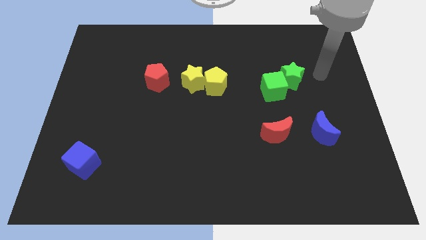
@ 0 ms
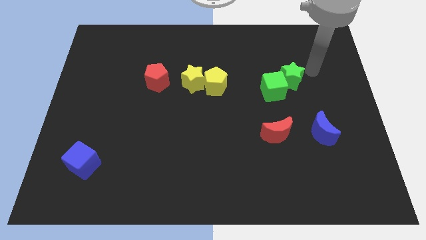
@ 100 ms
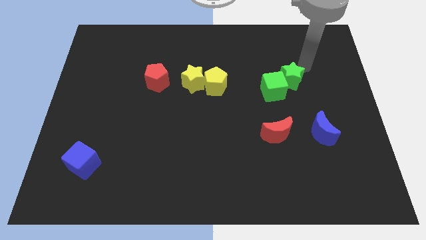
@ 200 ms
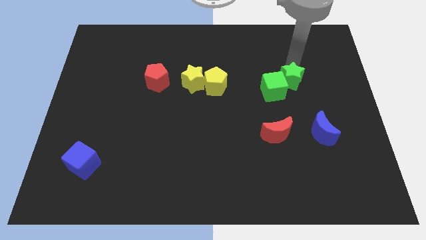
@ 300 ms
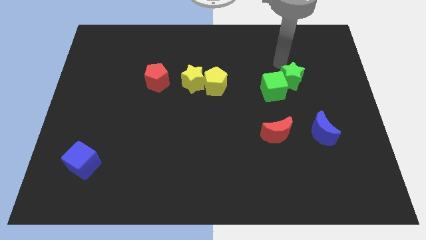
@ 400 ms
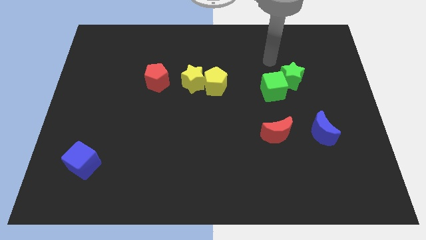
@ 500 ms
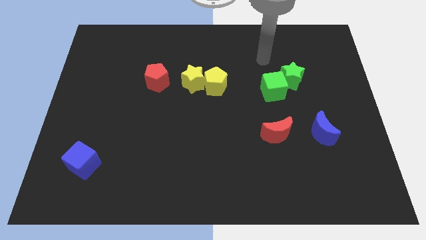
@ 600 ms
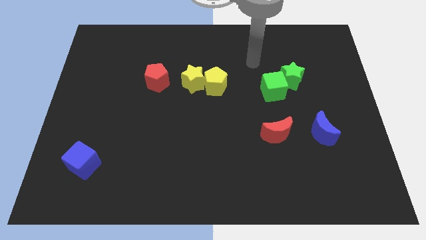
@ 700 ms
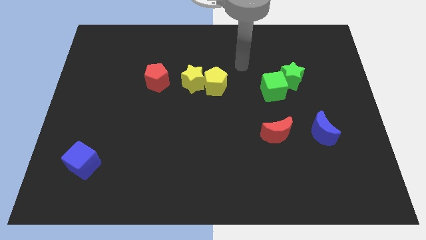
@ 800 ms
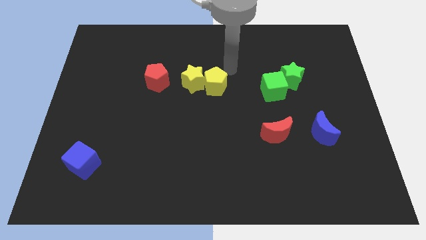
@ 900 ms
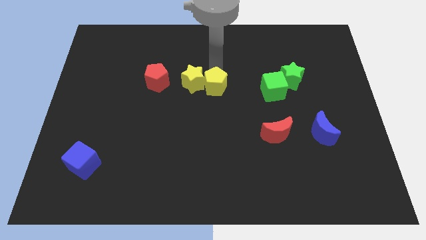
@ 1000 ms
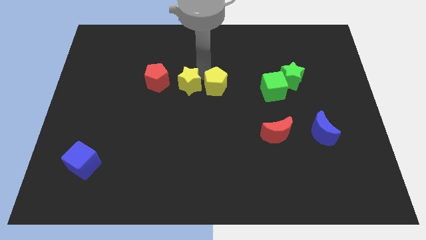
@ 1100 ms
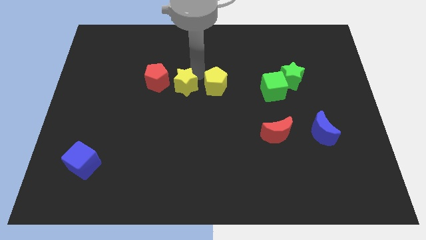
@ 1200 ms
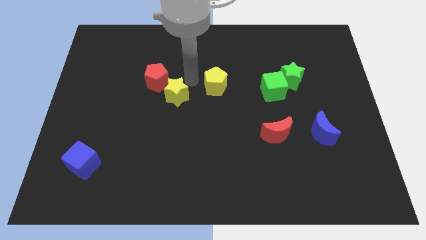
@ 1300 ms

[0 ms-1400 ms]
pull the yellow pentagon apart from the yellow star

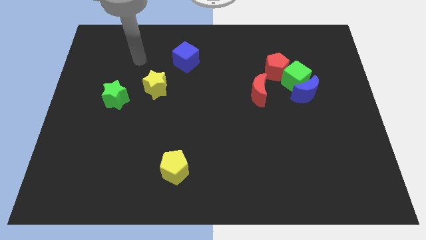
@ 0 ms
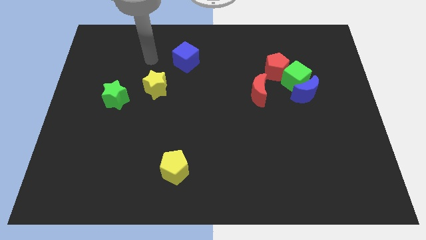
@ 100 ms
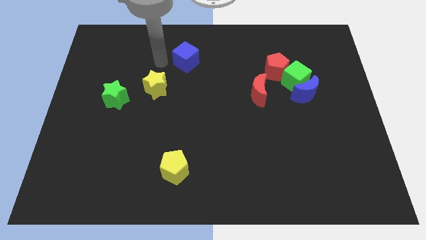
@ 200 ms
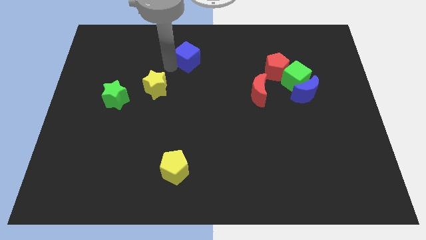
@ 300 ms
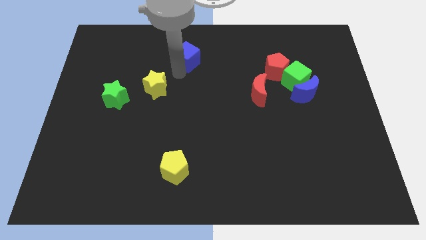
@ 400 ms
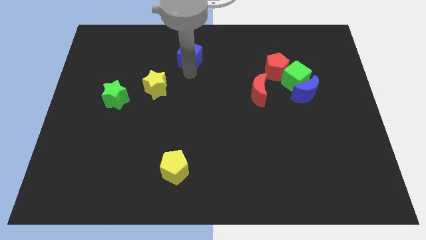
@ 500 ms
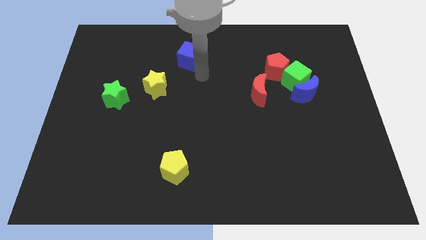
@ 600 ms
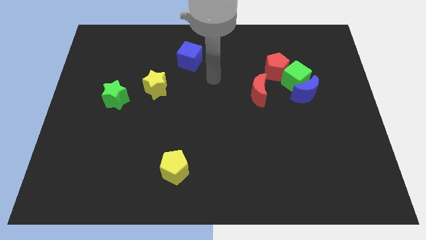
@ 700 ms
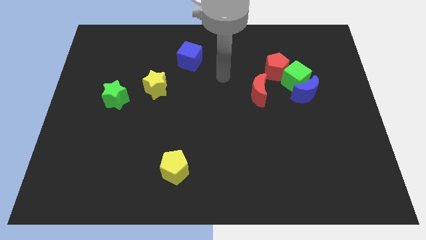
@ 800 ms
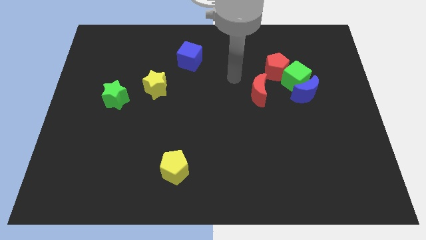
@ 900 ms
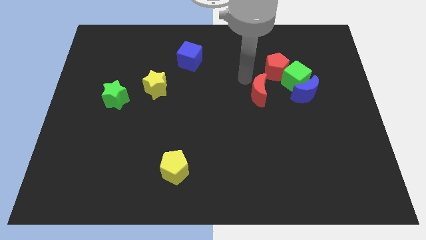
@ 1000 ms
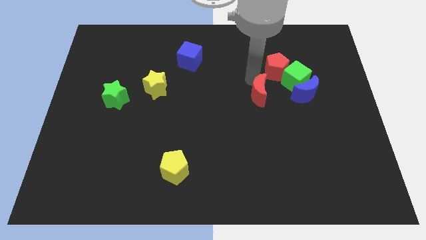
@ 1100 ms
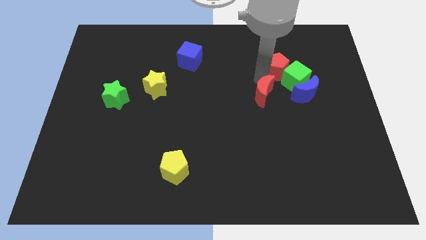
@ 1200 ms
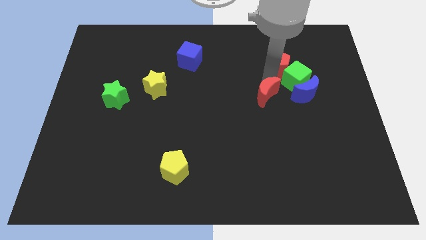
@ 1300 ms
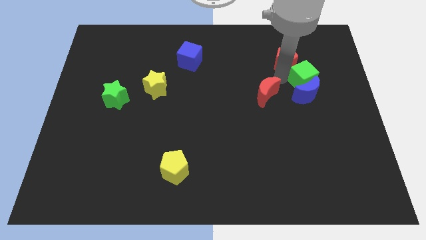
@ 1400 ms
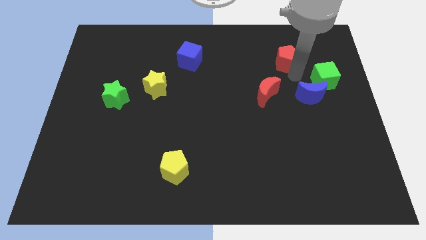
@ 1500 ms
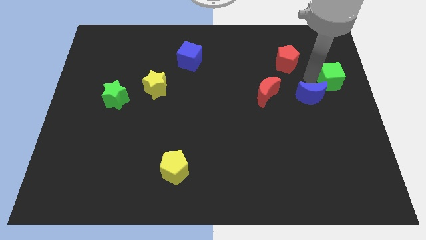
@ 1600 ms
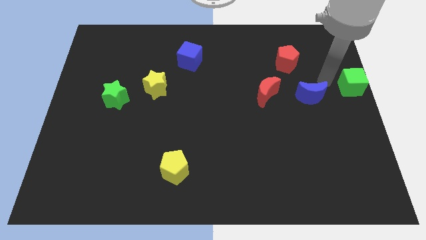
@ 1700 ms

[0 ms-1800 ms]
move the blue moon away from the green cube

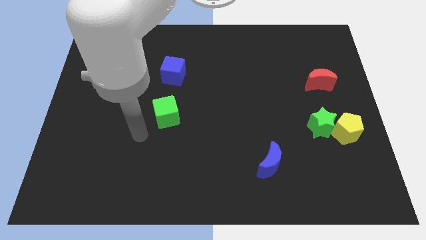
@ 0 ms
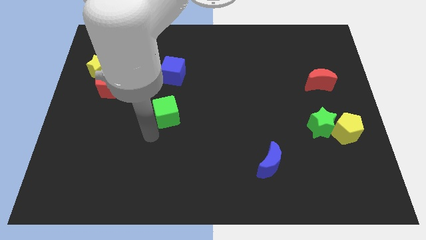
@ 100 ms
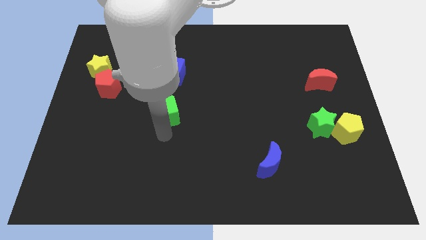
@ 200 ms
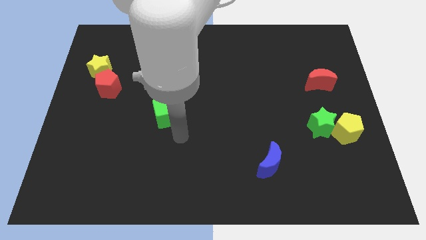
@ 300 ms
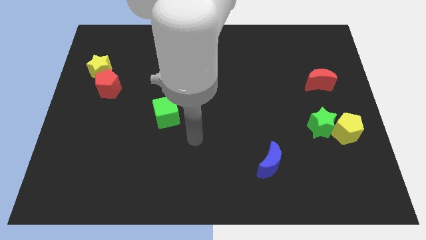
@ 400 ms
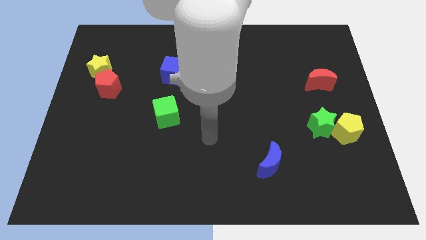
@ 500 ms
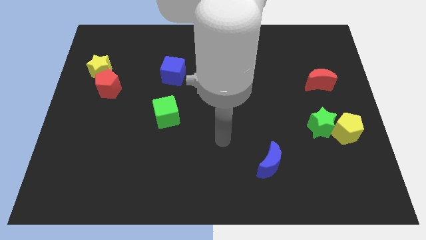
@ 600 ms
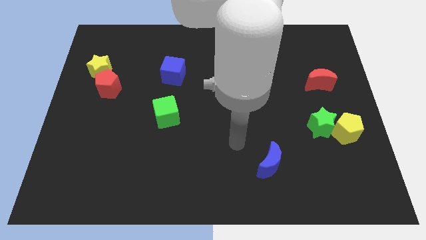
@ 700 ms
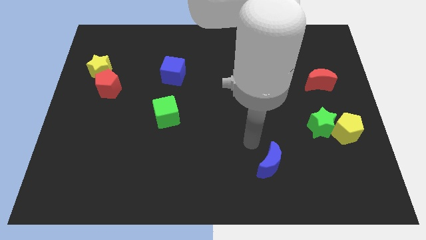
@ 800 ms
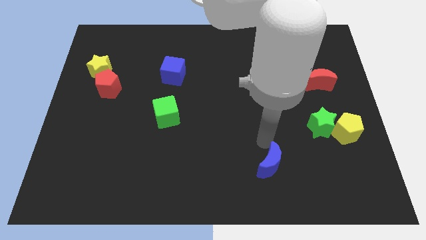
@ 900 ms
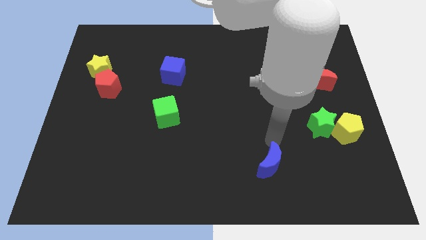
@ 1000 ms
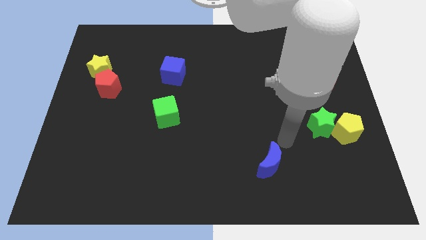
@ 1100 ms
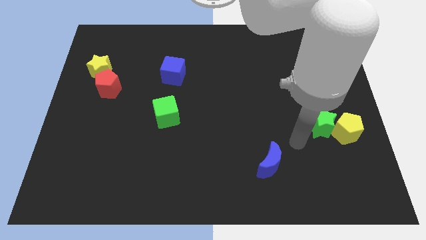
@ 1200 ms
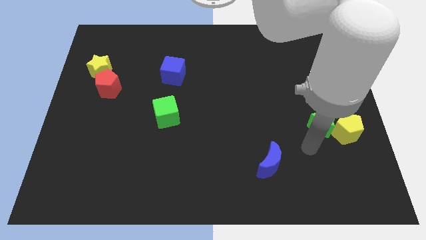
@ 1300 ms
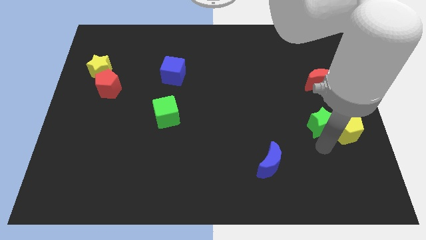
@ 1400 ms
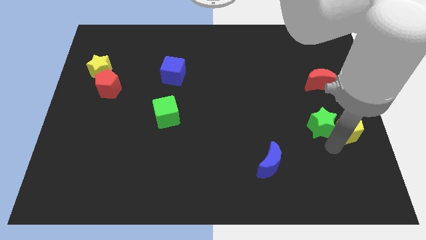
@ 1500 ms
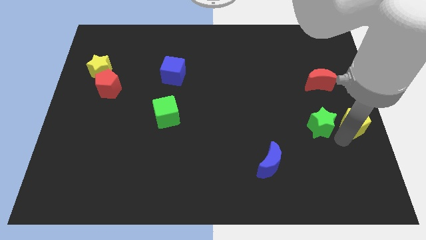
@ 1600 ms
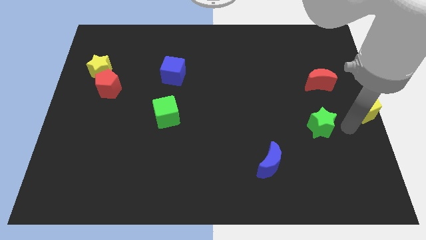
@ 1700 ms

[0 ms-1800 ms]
separate the green star from the yellow pentagon

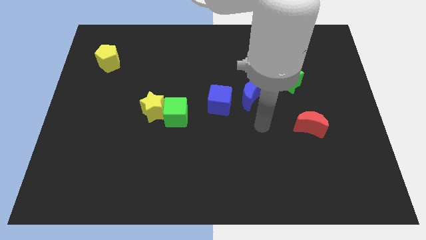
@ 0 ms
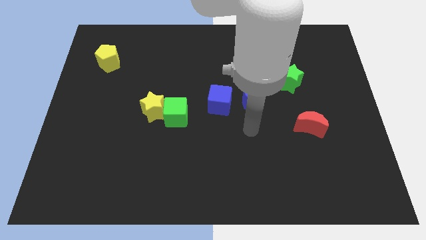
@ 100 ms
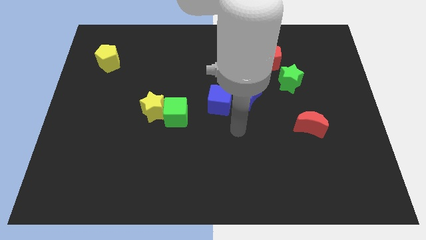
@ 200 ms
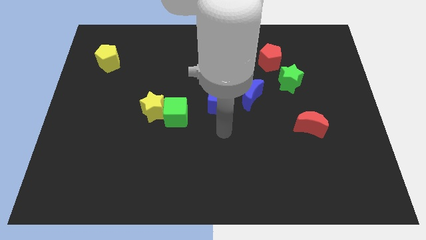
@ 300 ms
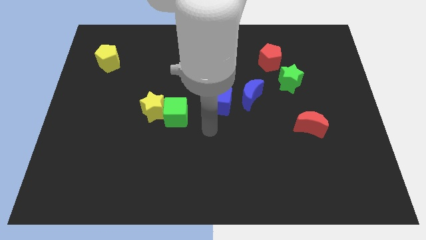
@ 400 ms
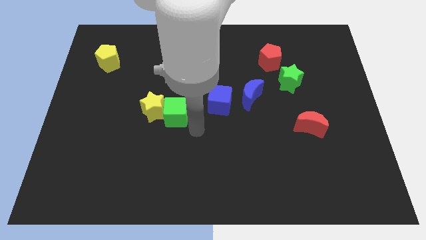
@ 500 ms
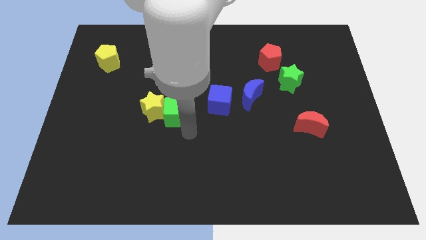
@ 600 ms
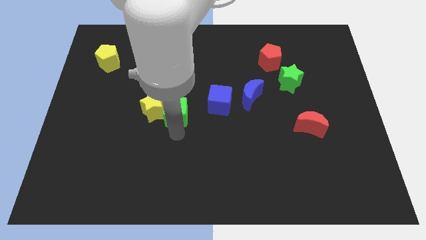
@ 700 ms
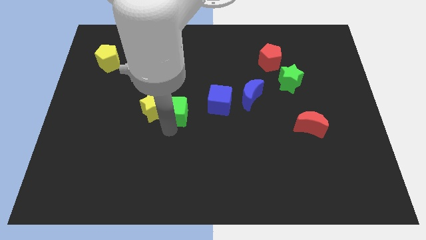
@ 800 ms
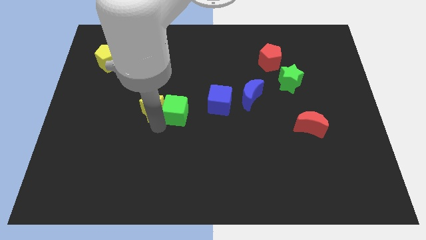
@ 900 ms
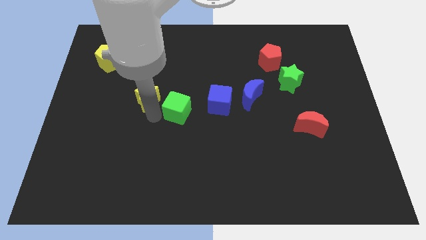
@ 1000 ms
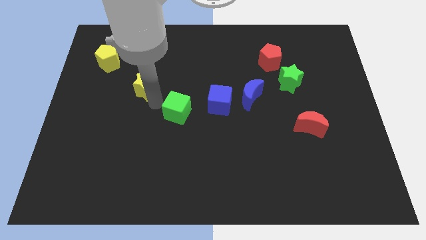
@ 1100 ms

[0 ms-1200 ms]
move the green cube away from the yellow star

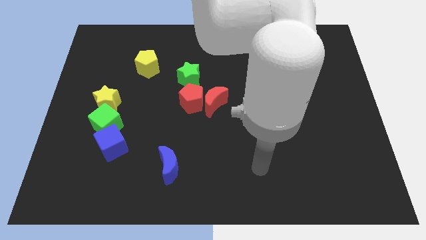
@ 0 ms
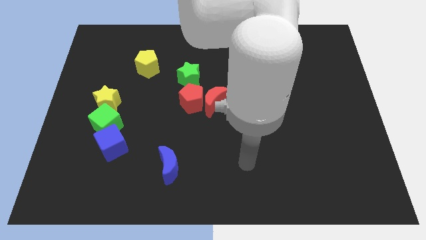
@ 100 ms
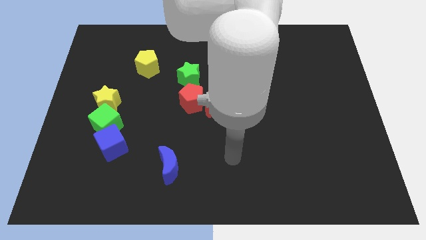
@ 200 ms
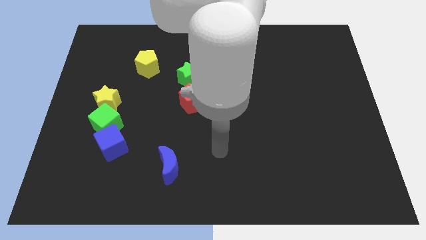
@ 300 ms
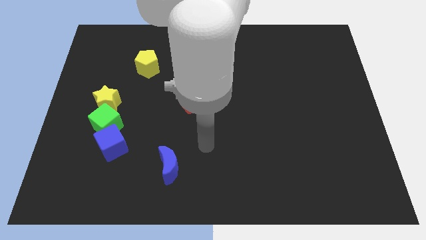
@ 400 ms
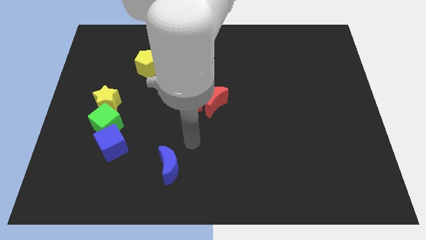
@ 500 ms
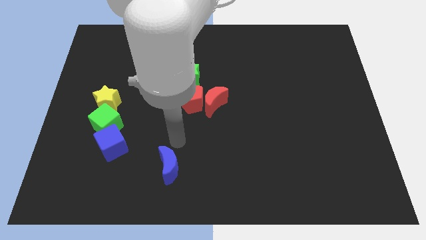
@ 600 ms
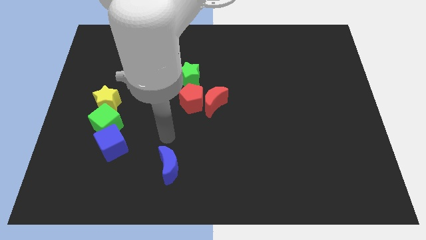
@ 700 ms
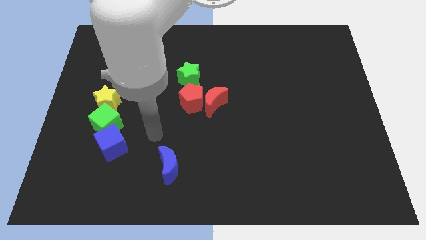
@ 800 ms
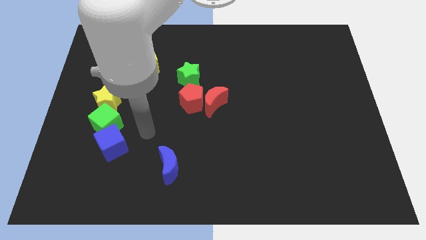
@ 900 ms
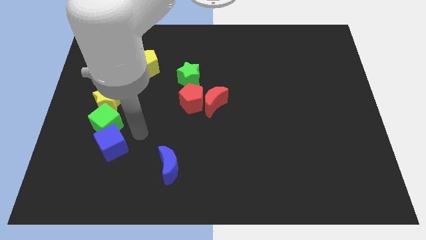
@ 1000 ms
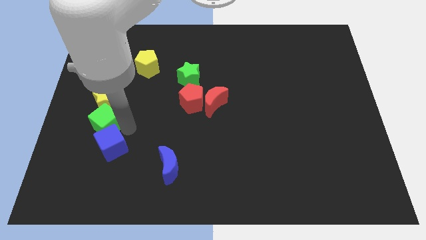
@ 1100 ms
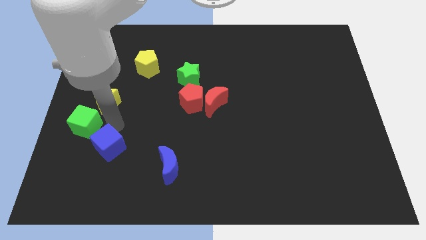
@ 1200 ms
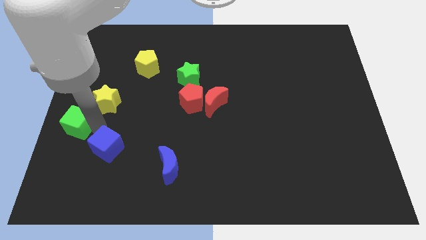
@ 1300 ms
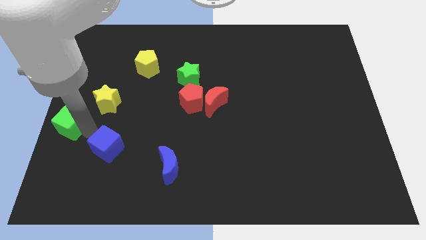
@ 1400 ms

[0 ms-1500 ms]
pull the blue cube apart from the green cube

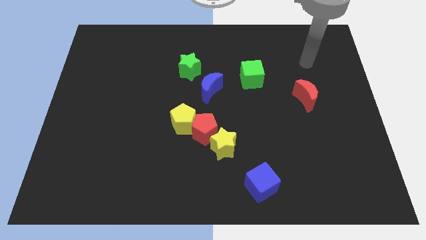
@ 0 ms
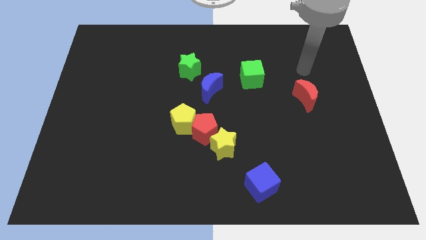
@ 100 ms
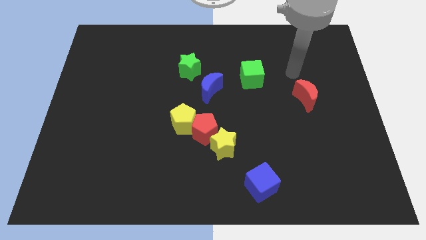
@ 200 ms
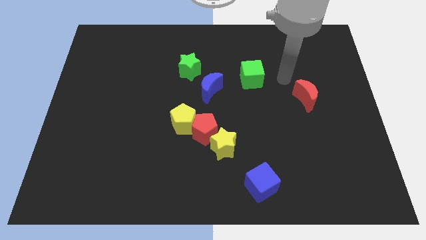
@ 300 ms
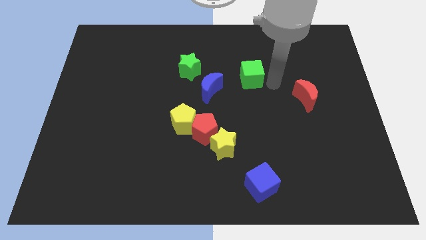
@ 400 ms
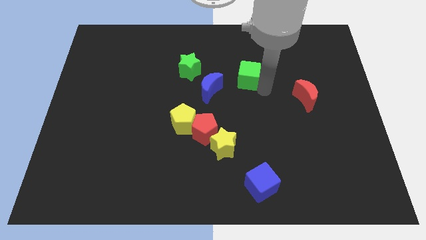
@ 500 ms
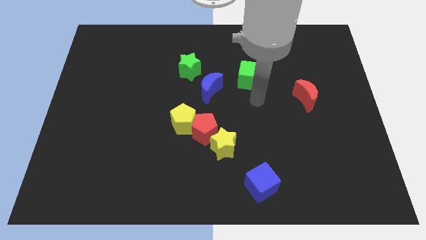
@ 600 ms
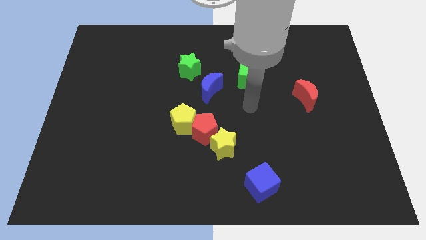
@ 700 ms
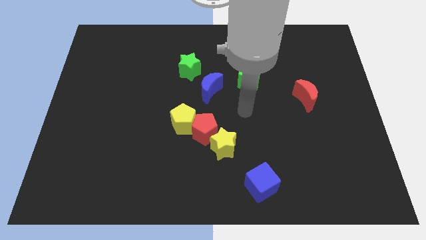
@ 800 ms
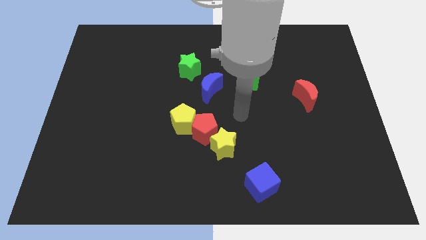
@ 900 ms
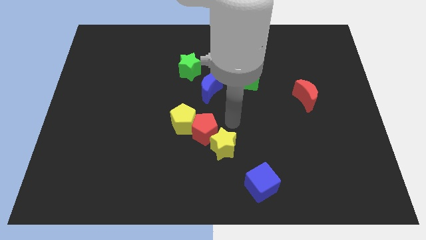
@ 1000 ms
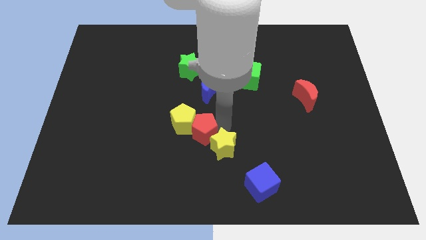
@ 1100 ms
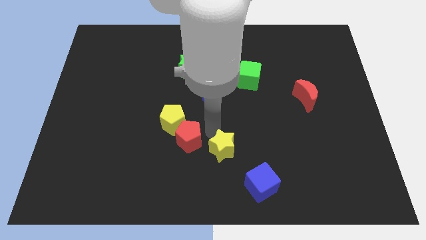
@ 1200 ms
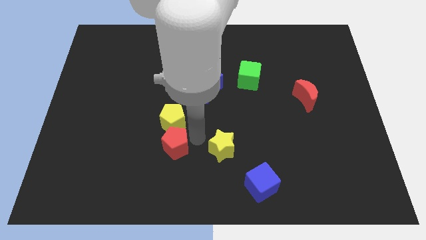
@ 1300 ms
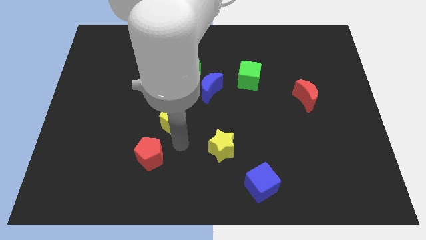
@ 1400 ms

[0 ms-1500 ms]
separate the yellow pentagon from the red pentagon
